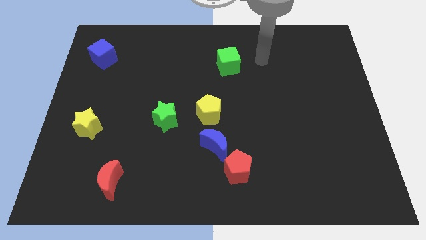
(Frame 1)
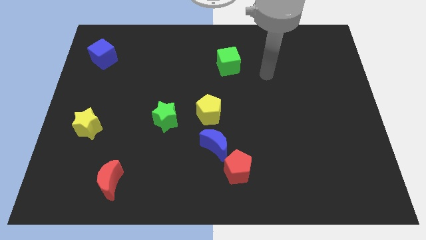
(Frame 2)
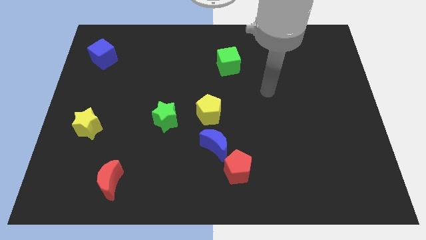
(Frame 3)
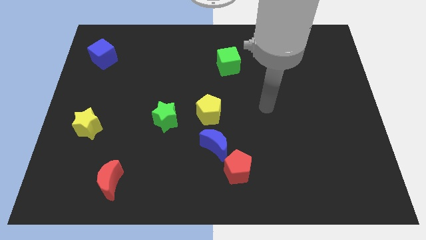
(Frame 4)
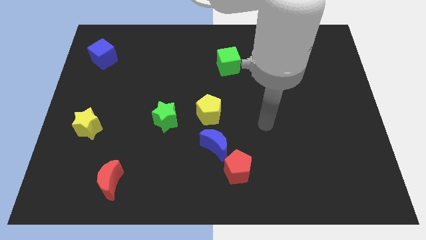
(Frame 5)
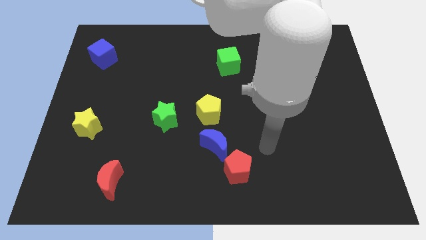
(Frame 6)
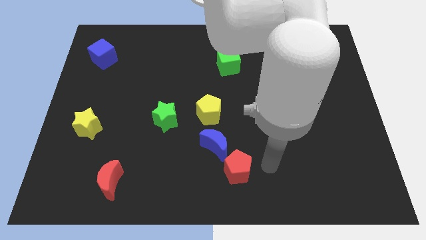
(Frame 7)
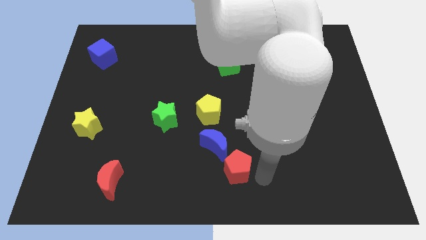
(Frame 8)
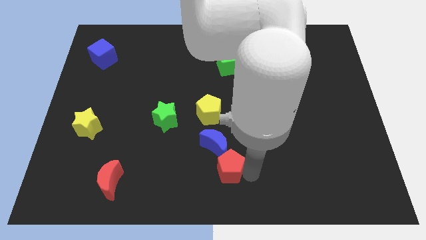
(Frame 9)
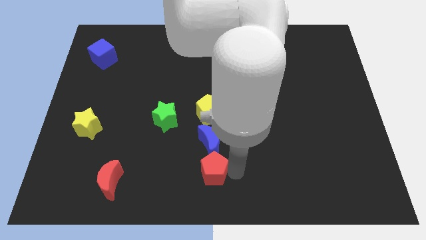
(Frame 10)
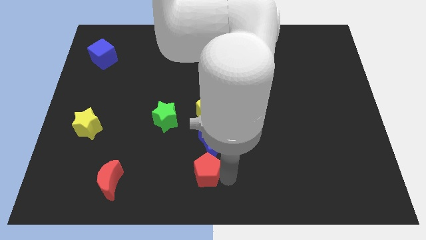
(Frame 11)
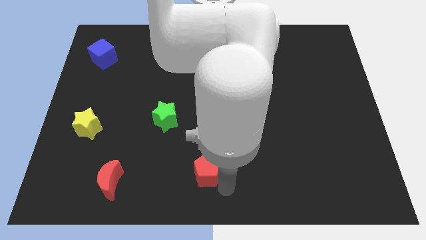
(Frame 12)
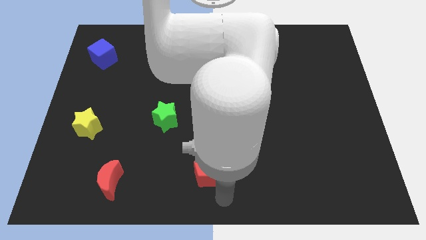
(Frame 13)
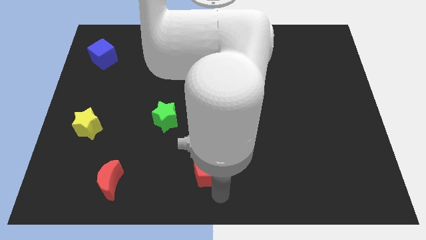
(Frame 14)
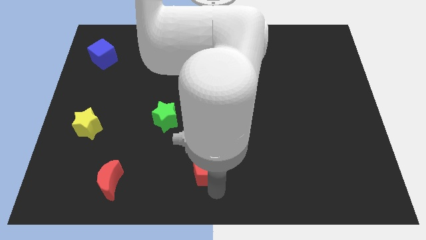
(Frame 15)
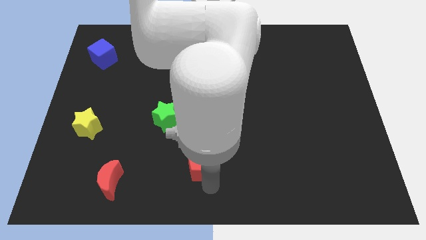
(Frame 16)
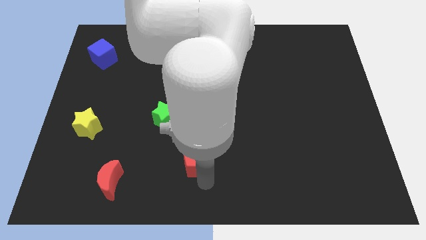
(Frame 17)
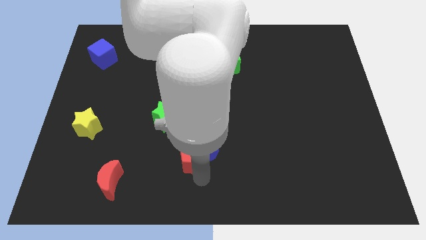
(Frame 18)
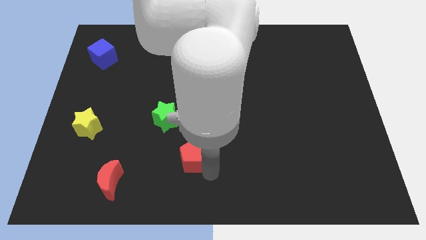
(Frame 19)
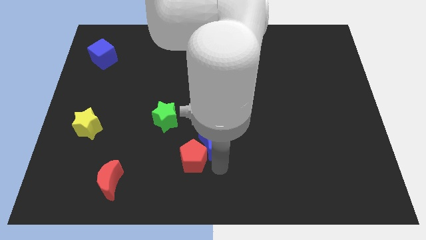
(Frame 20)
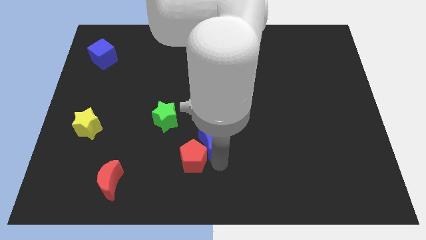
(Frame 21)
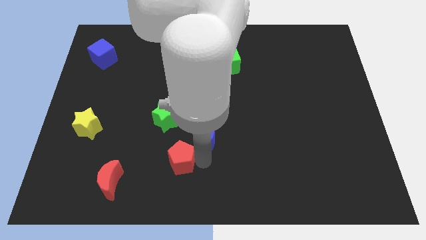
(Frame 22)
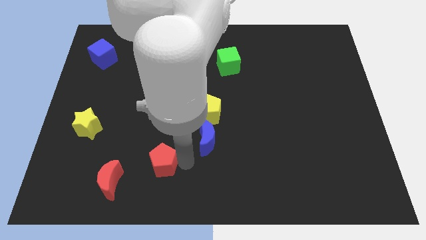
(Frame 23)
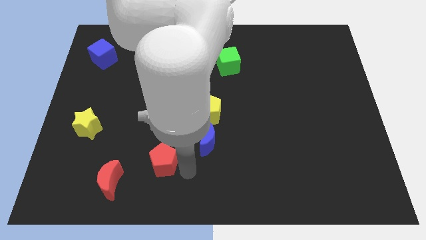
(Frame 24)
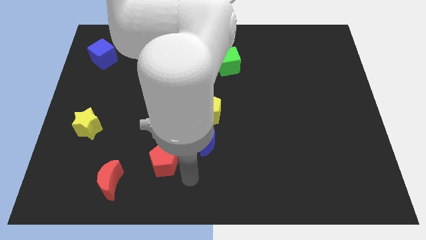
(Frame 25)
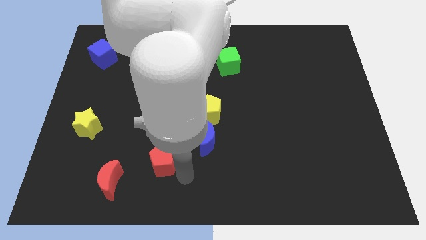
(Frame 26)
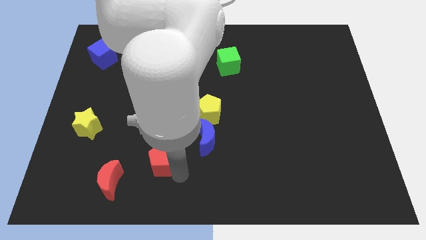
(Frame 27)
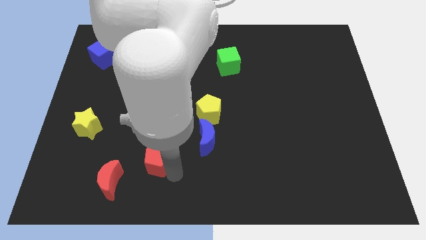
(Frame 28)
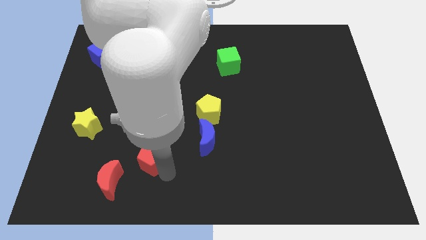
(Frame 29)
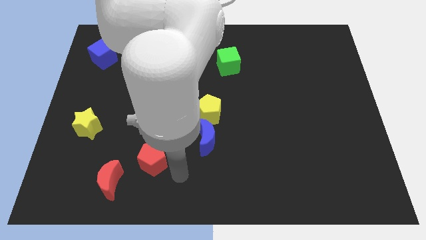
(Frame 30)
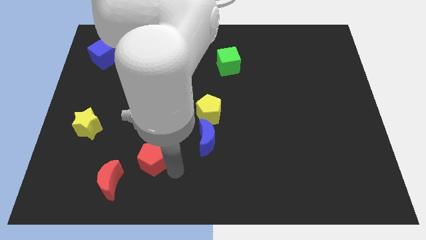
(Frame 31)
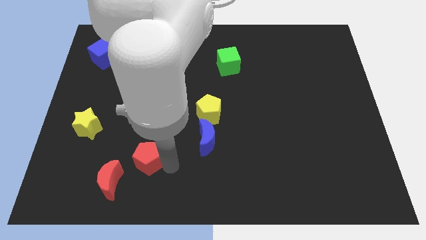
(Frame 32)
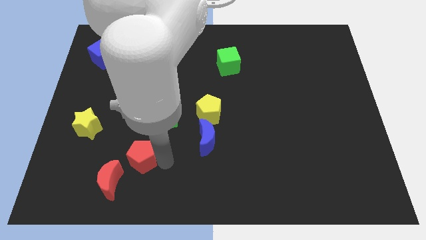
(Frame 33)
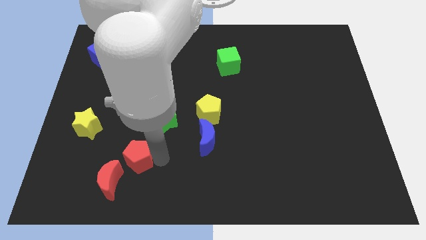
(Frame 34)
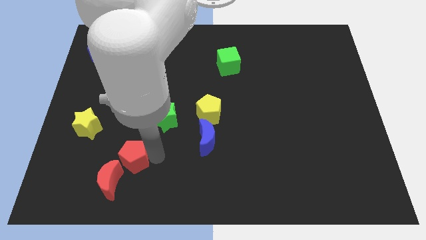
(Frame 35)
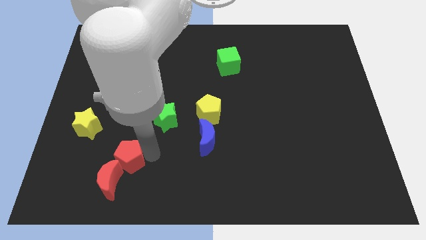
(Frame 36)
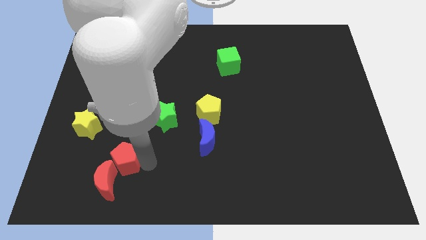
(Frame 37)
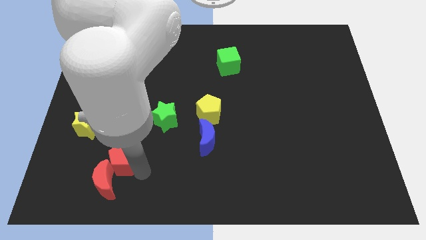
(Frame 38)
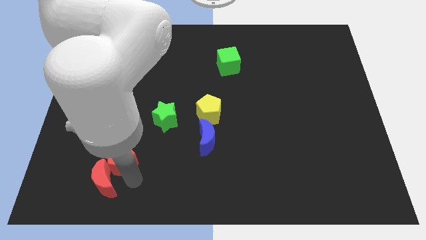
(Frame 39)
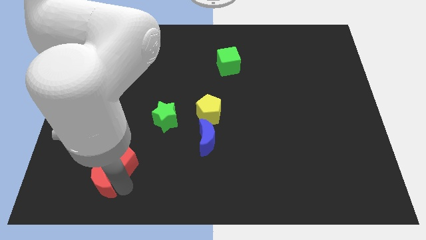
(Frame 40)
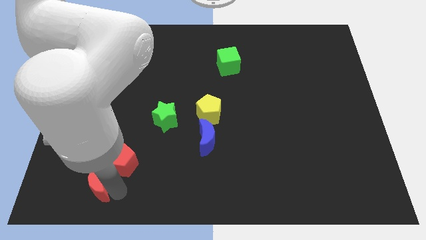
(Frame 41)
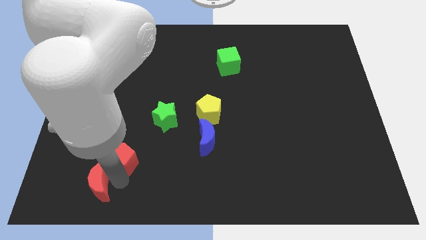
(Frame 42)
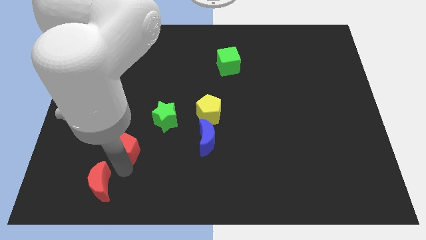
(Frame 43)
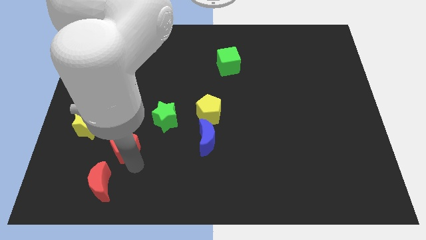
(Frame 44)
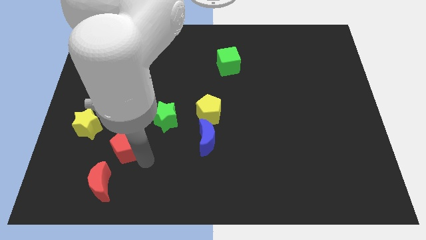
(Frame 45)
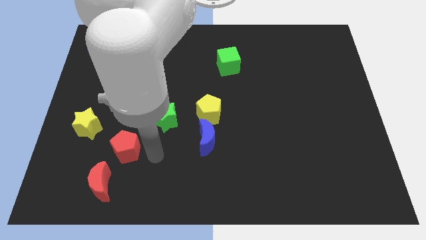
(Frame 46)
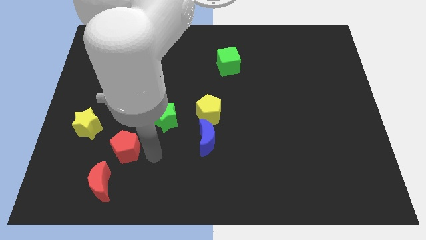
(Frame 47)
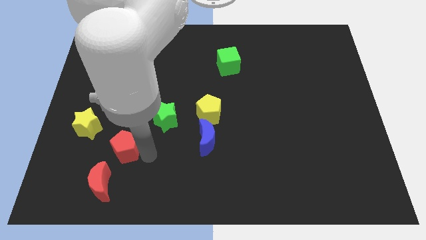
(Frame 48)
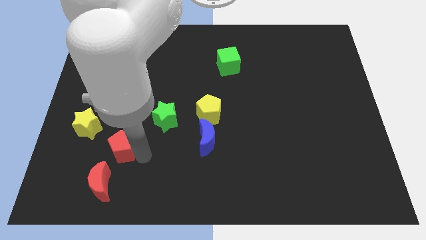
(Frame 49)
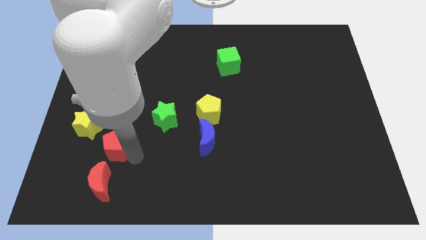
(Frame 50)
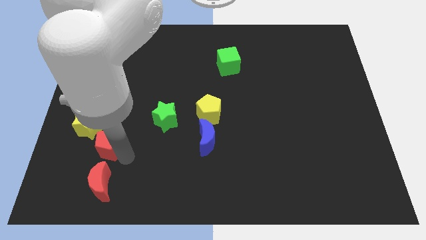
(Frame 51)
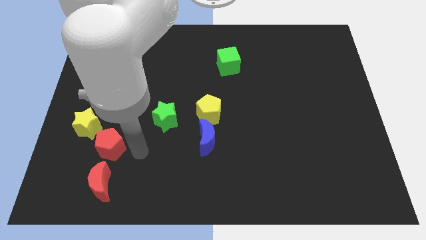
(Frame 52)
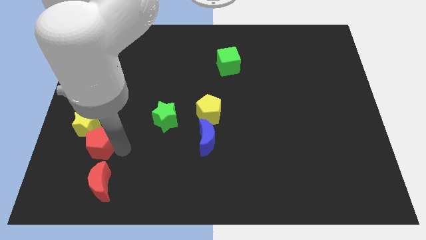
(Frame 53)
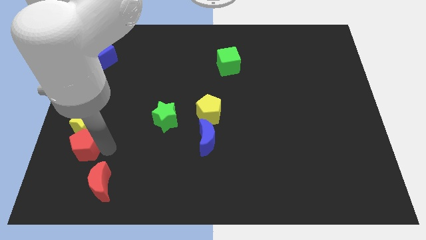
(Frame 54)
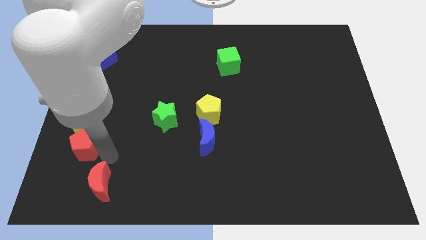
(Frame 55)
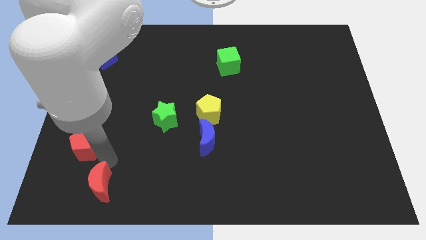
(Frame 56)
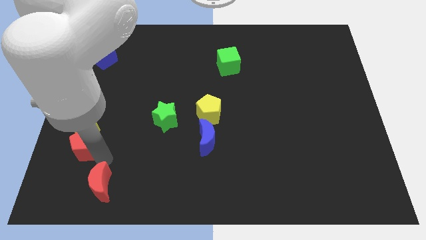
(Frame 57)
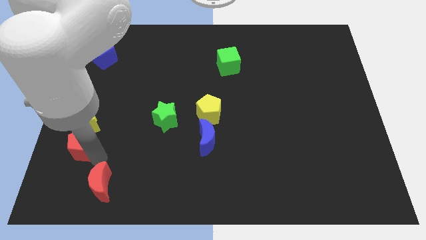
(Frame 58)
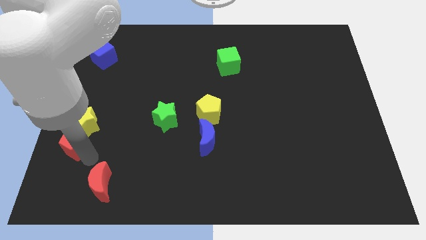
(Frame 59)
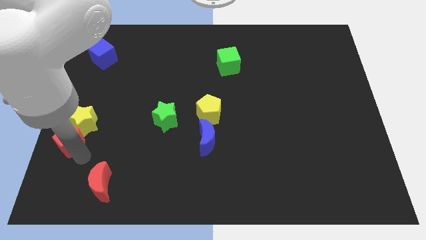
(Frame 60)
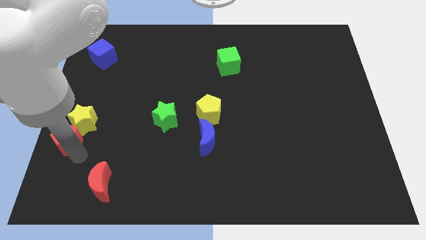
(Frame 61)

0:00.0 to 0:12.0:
put the red pentagon to the center left

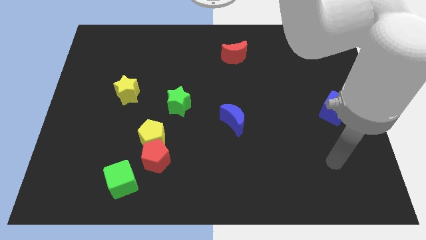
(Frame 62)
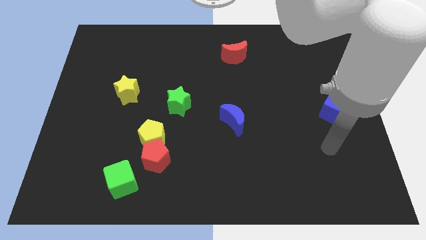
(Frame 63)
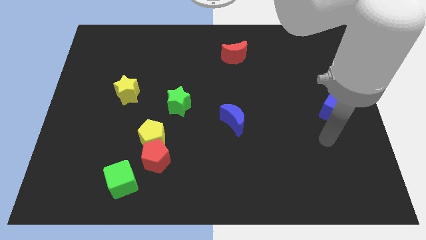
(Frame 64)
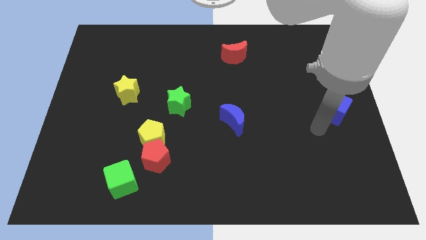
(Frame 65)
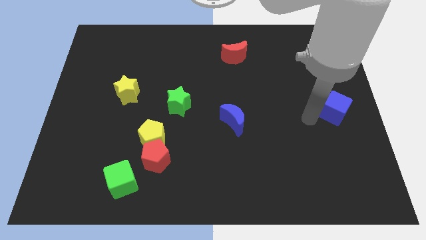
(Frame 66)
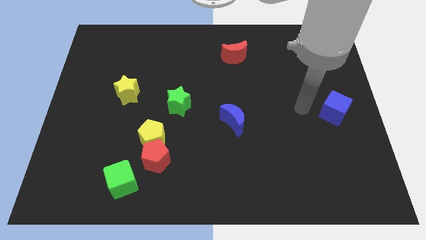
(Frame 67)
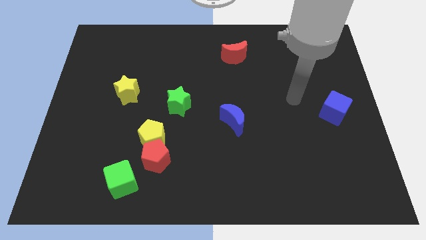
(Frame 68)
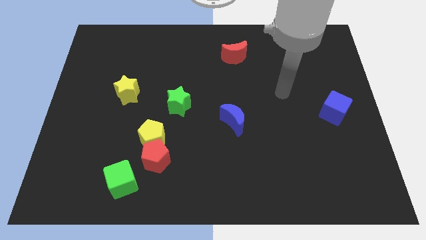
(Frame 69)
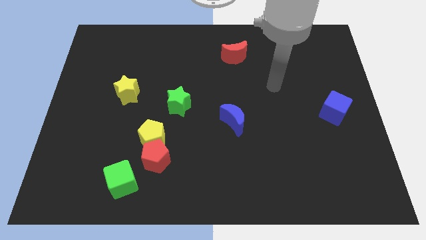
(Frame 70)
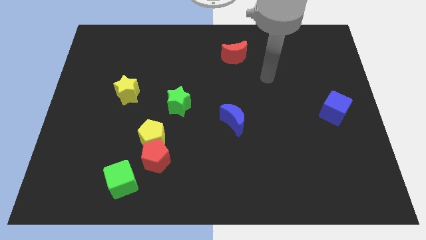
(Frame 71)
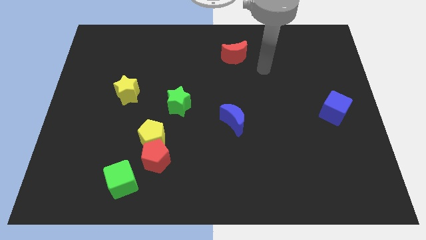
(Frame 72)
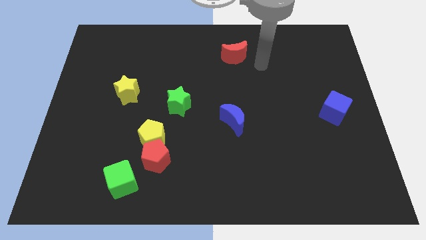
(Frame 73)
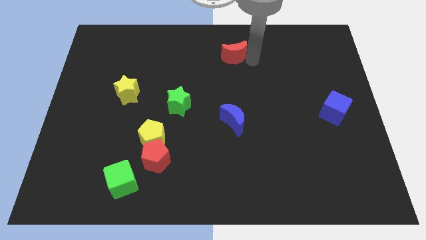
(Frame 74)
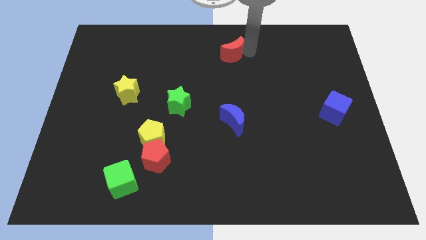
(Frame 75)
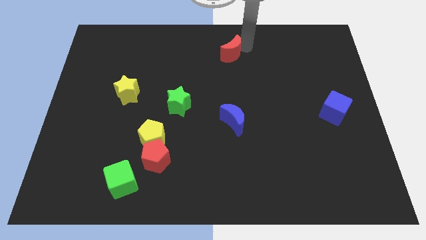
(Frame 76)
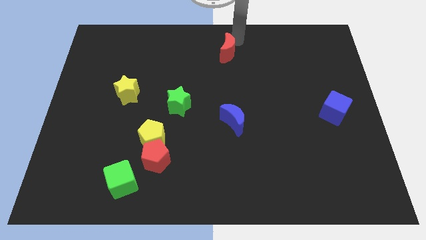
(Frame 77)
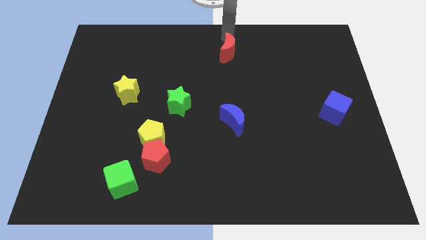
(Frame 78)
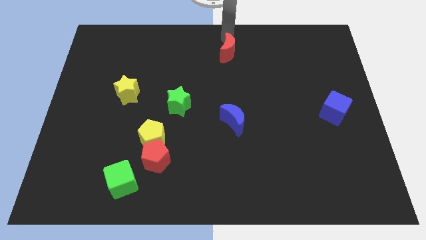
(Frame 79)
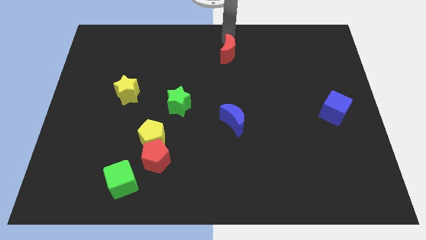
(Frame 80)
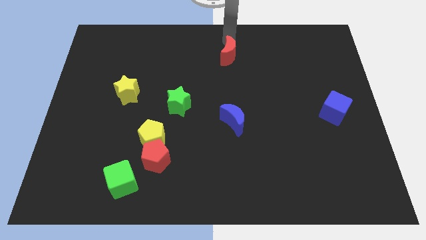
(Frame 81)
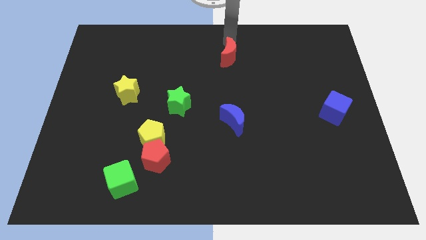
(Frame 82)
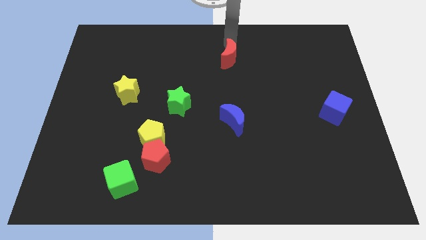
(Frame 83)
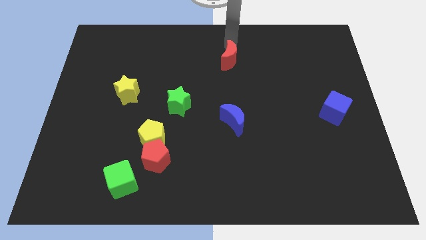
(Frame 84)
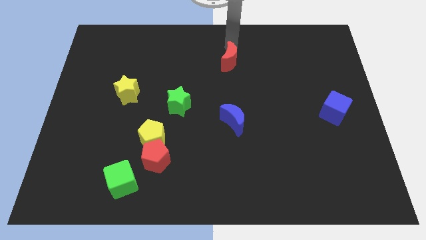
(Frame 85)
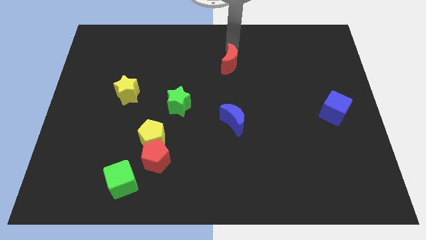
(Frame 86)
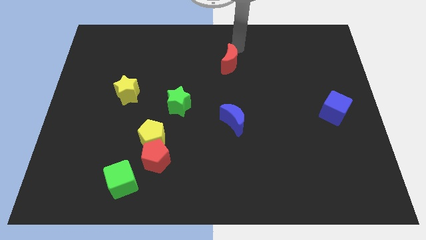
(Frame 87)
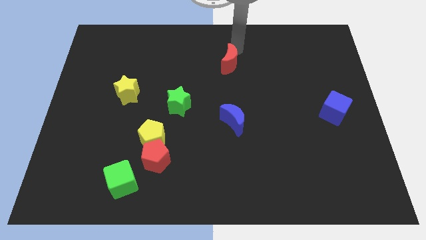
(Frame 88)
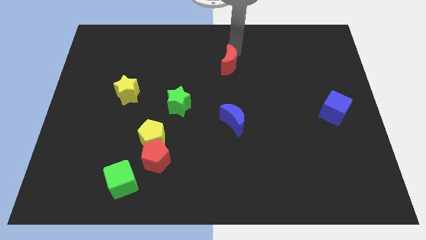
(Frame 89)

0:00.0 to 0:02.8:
put the red moon to the center of the board
